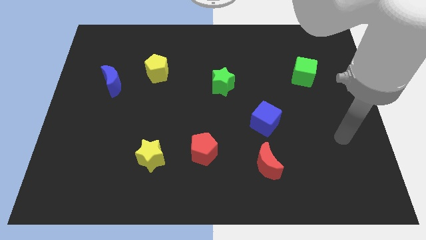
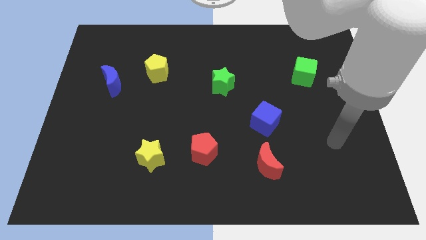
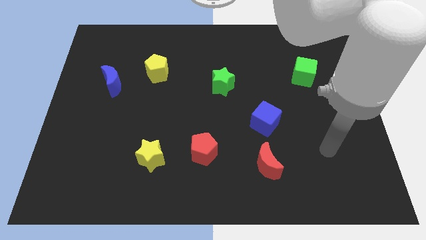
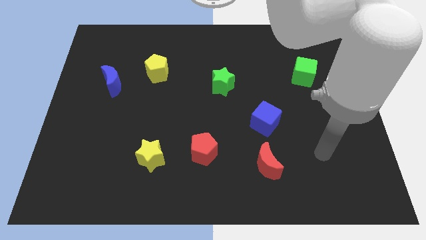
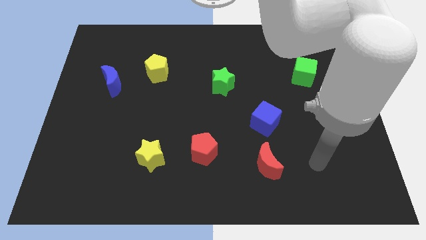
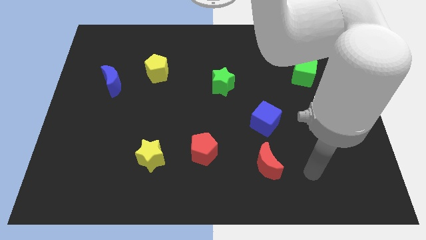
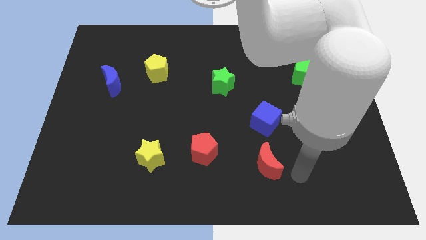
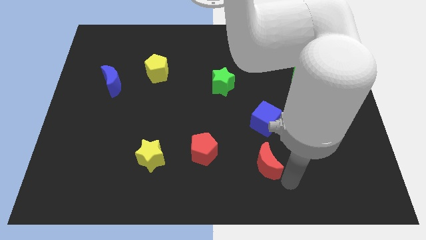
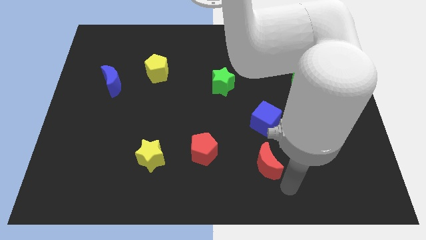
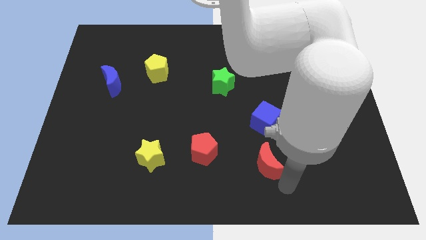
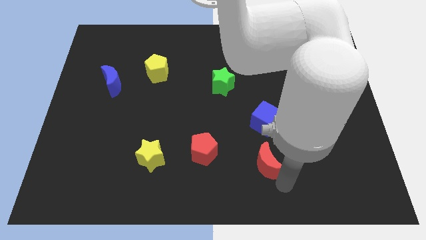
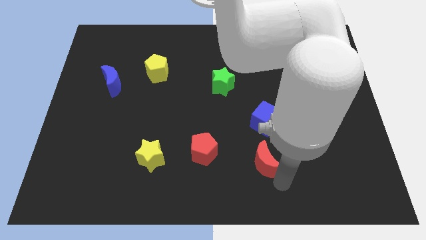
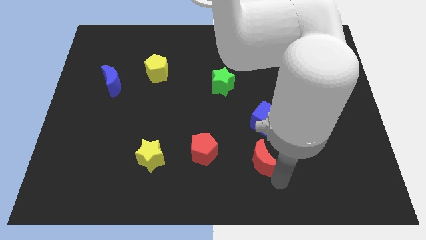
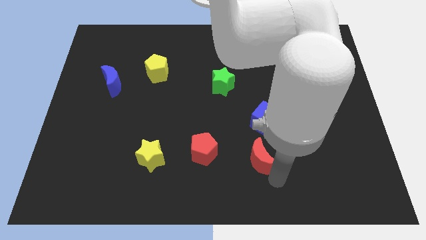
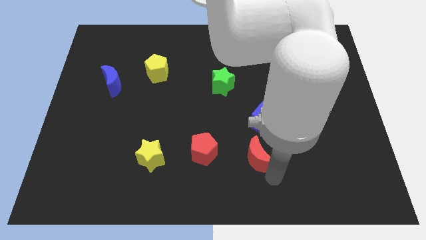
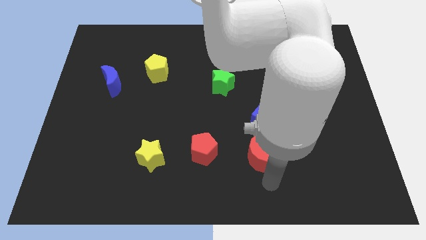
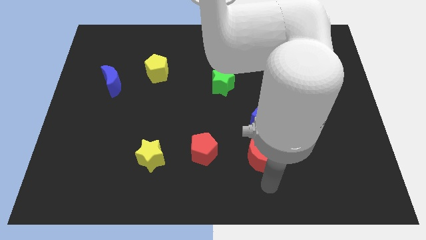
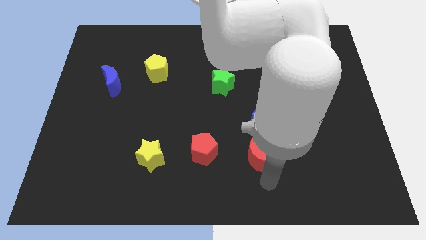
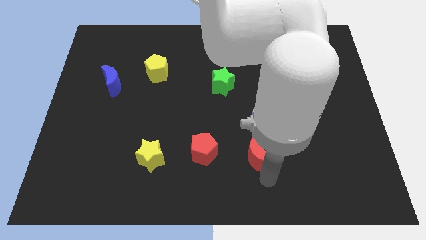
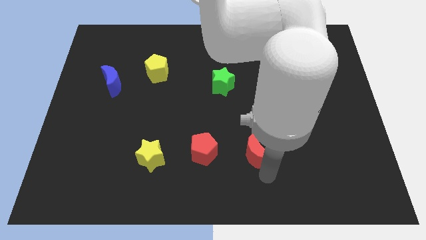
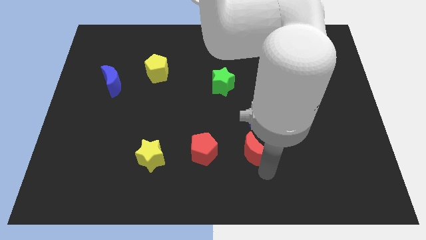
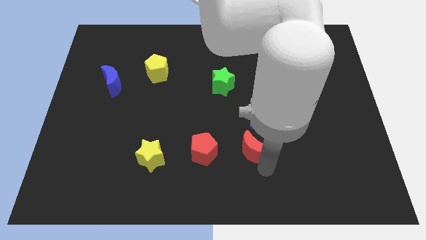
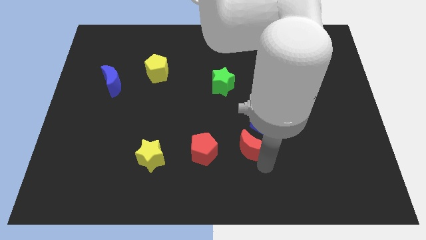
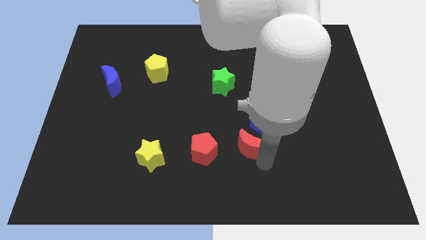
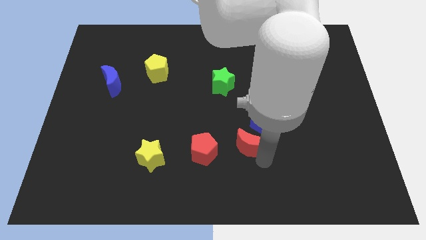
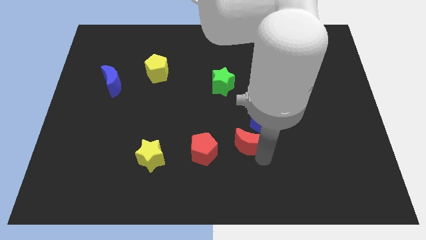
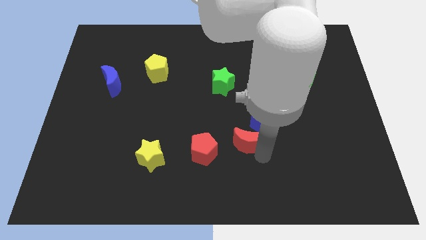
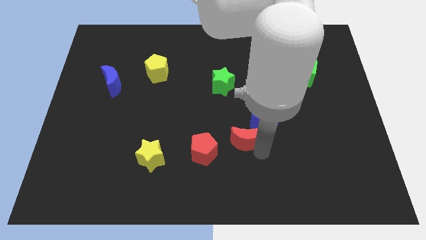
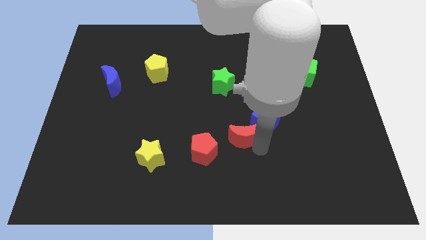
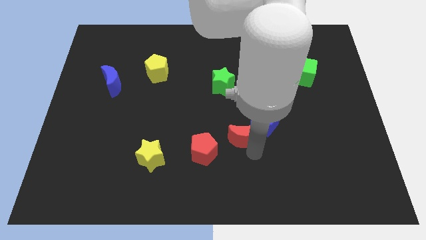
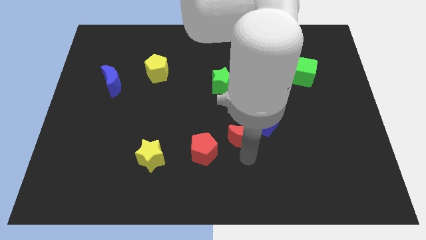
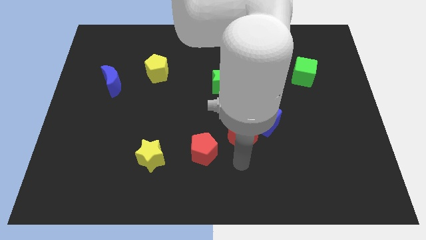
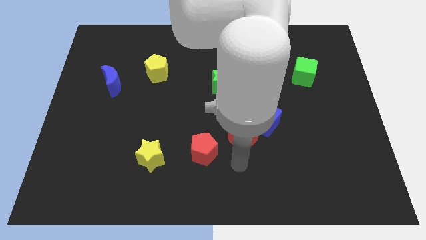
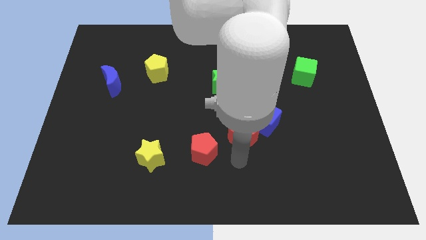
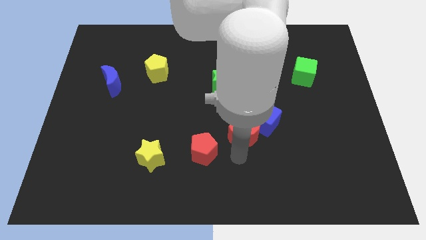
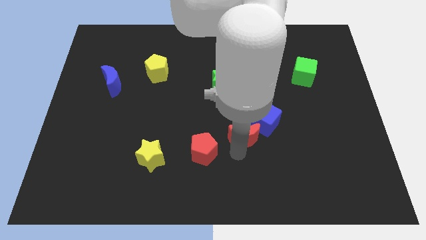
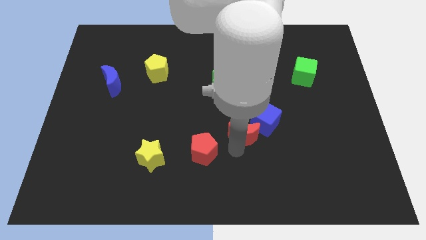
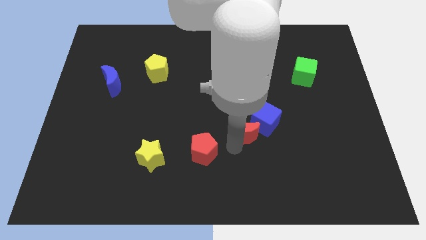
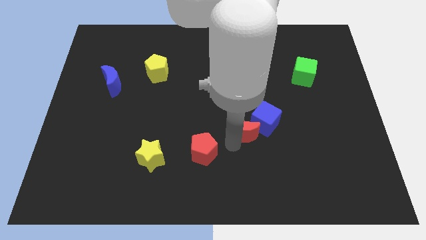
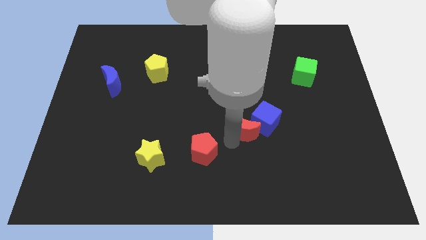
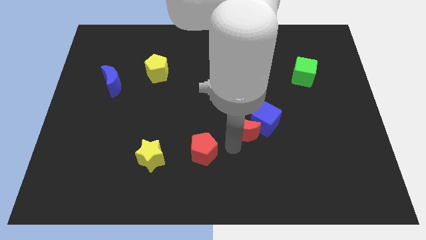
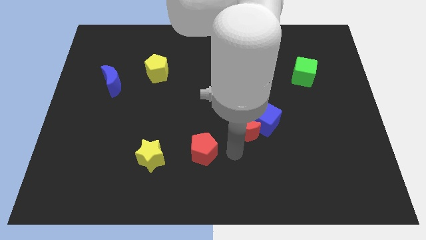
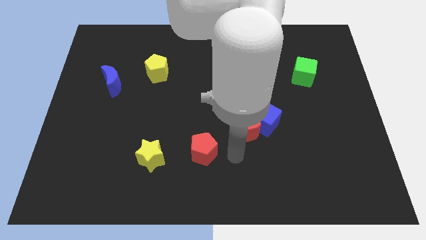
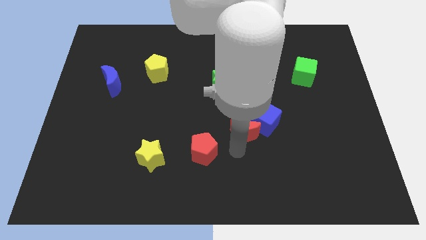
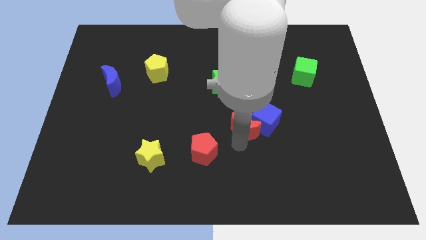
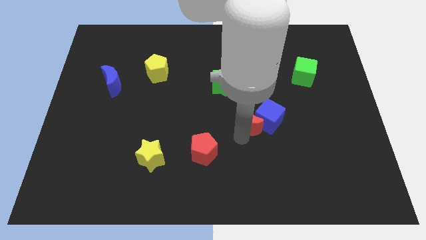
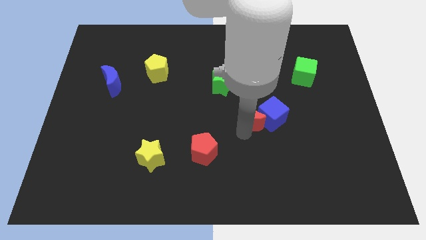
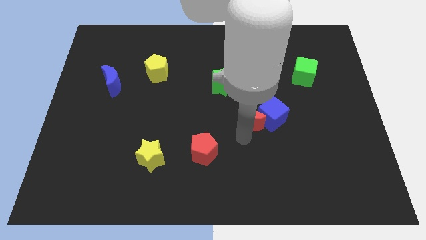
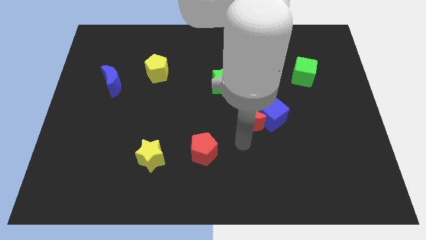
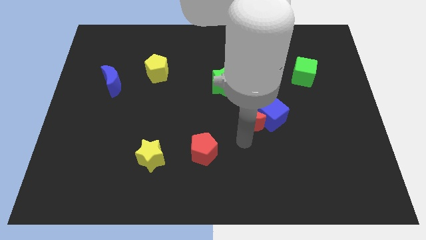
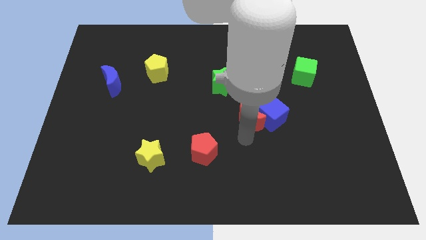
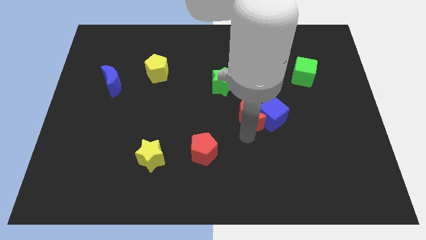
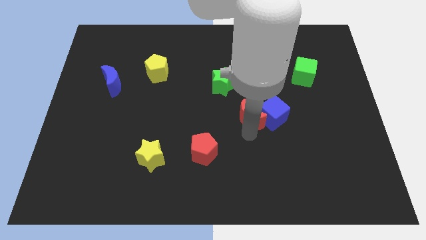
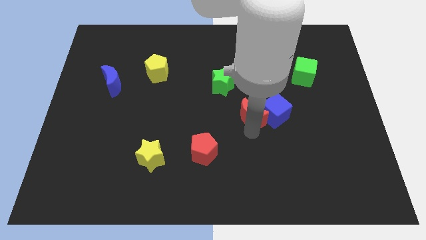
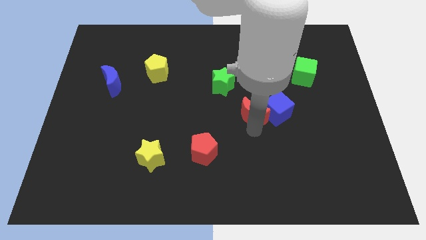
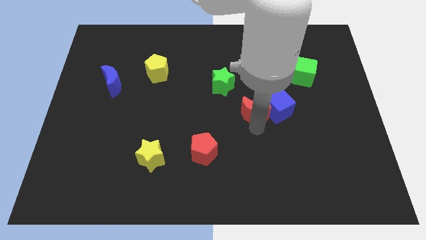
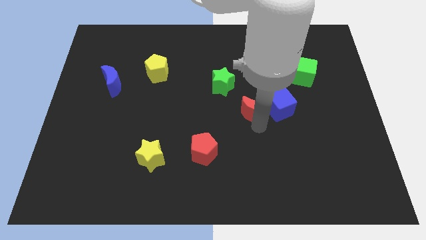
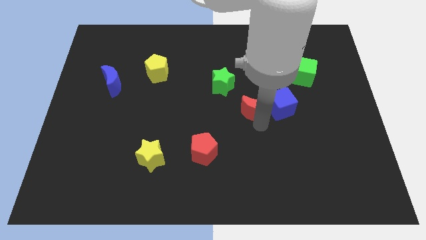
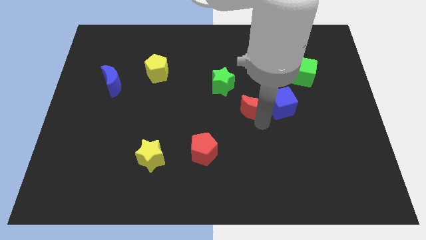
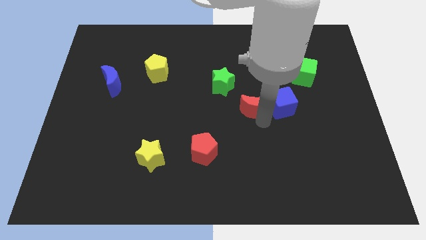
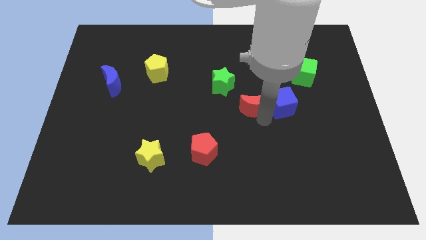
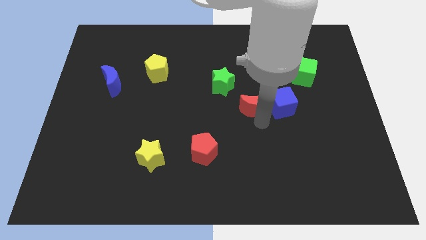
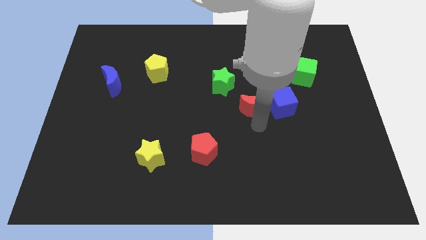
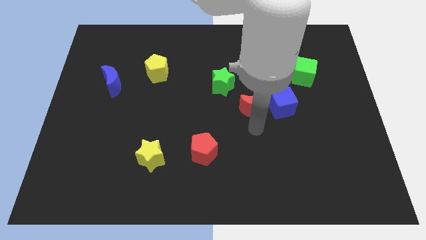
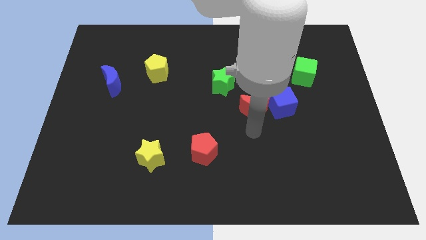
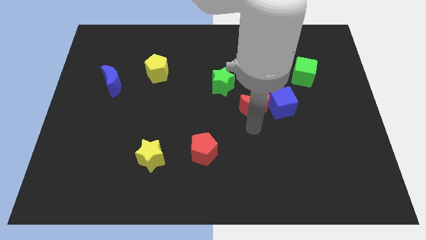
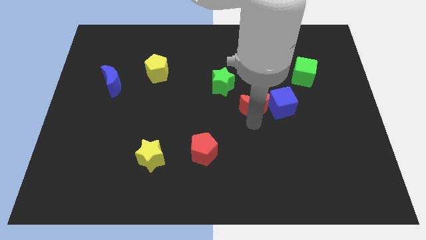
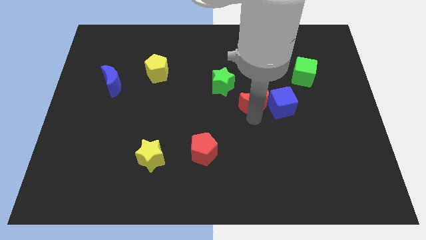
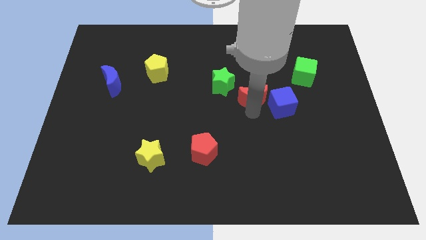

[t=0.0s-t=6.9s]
move the red moon just right of the green star
